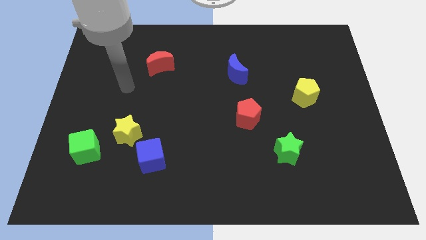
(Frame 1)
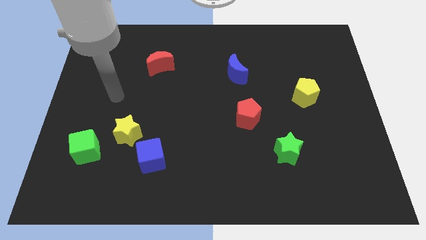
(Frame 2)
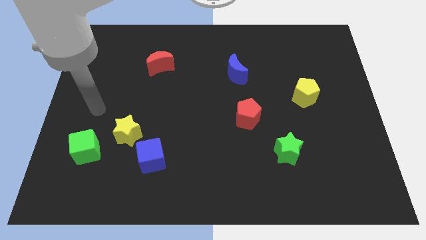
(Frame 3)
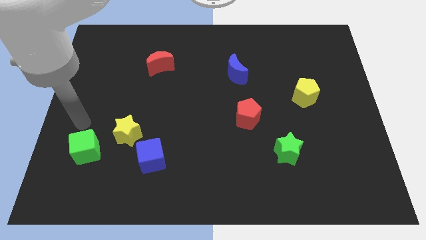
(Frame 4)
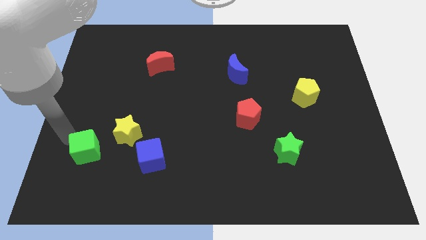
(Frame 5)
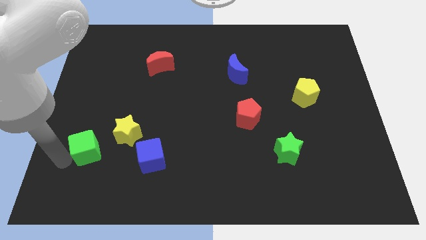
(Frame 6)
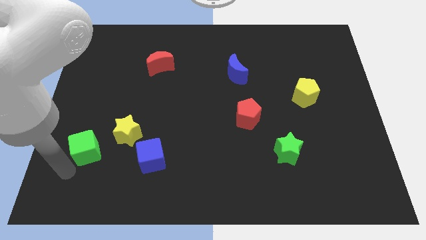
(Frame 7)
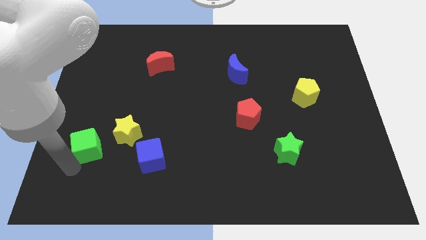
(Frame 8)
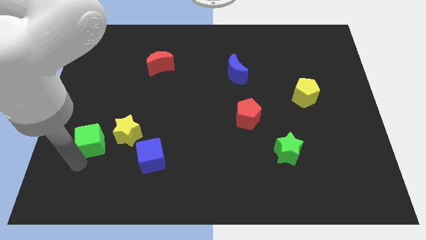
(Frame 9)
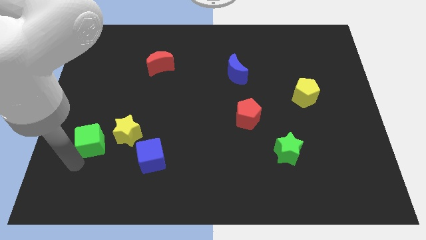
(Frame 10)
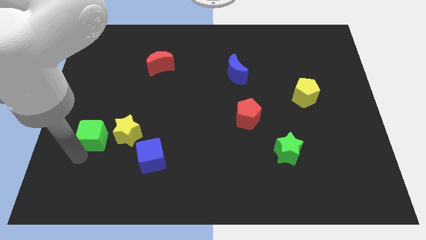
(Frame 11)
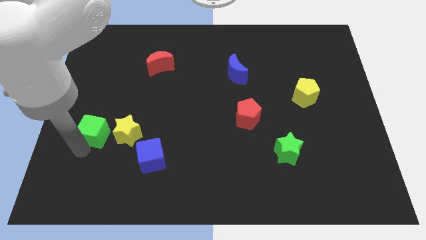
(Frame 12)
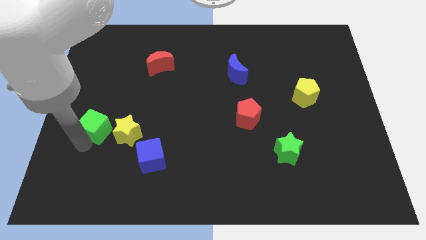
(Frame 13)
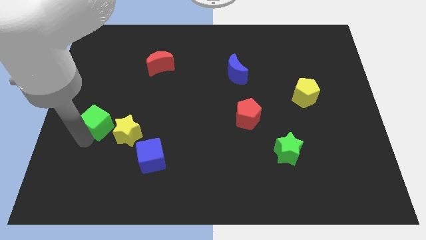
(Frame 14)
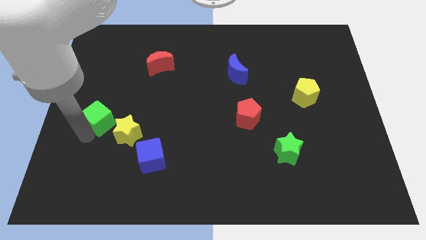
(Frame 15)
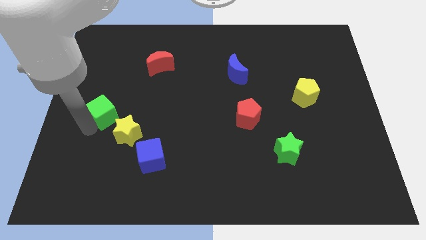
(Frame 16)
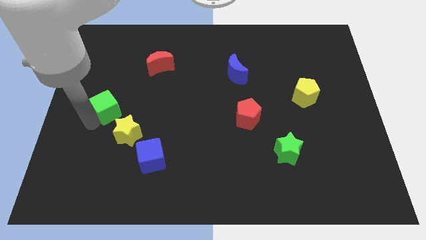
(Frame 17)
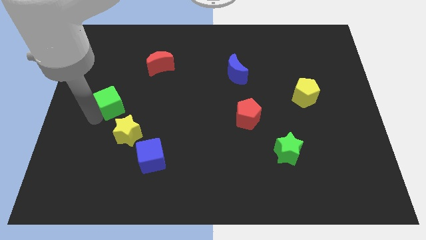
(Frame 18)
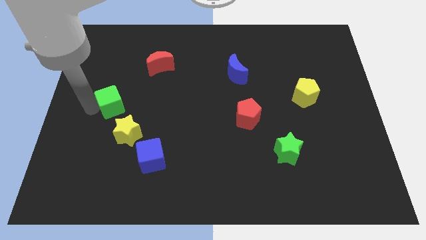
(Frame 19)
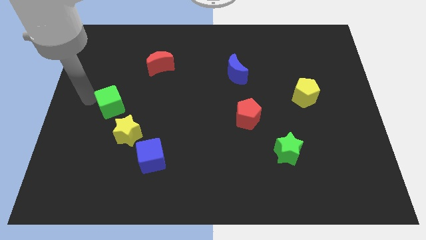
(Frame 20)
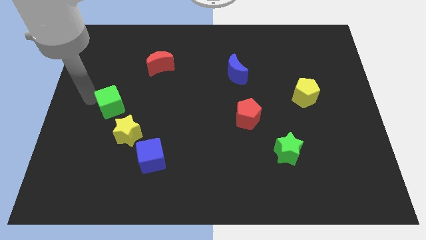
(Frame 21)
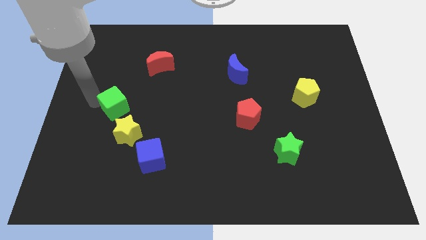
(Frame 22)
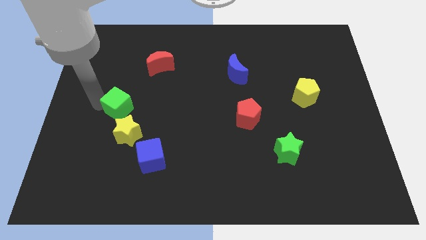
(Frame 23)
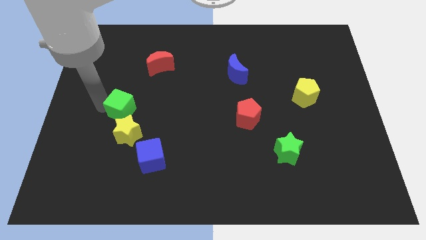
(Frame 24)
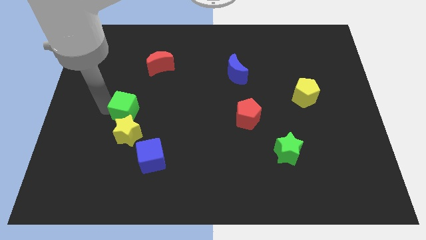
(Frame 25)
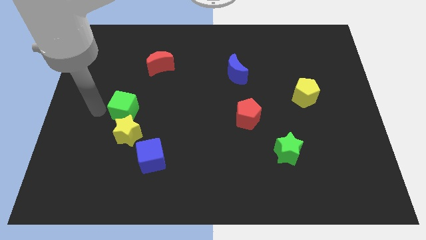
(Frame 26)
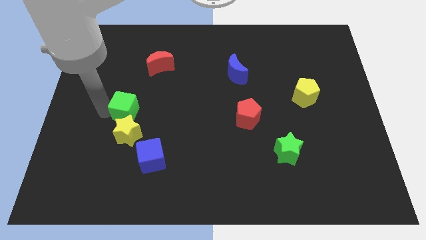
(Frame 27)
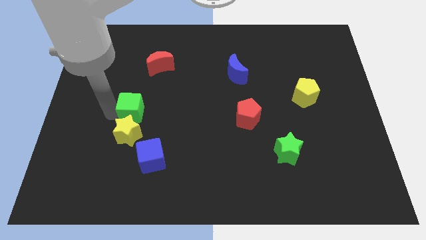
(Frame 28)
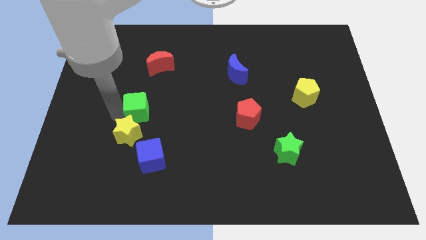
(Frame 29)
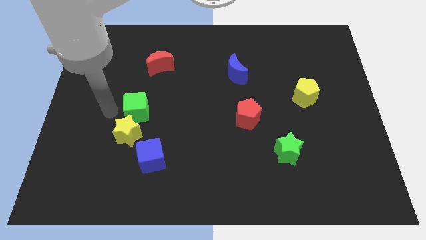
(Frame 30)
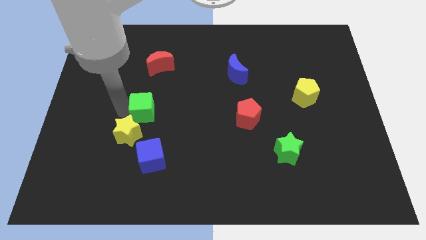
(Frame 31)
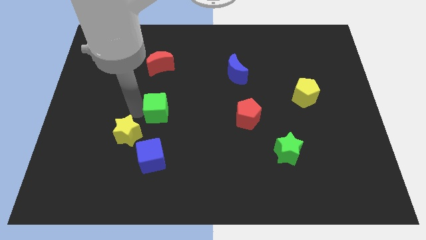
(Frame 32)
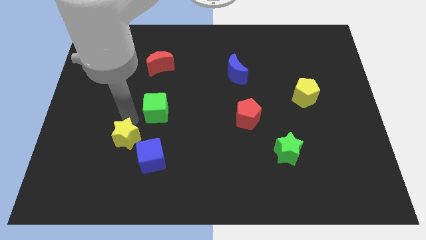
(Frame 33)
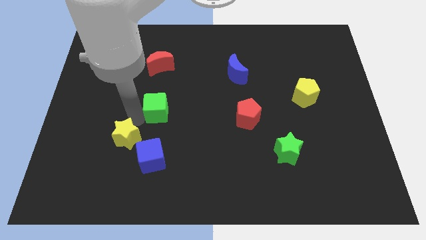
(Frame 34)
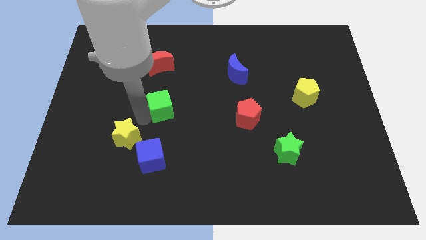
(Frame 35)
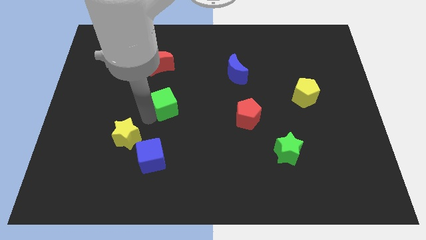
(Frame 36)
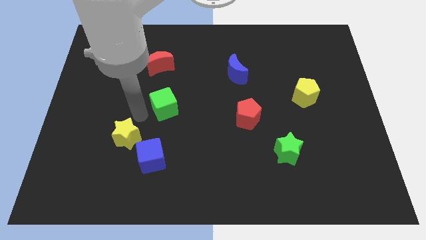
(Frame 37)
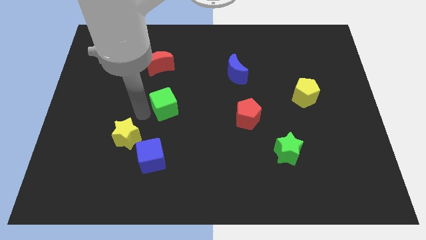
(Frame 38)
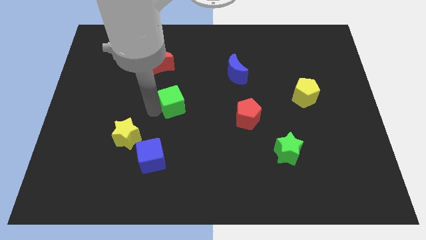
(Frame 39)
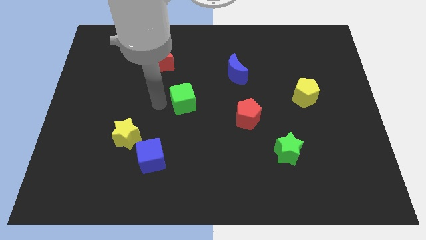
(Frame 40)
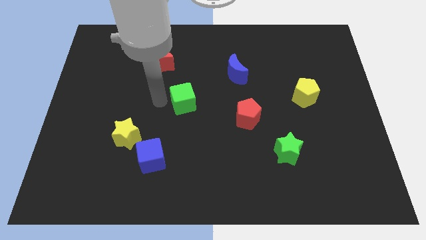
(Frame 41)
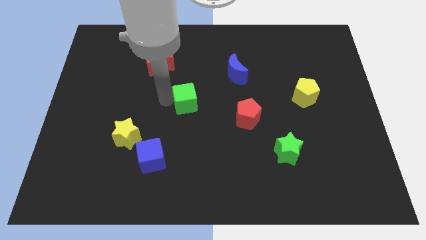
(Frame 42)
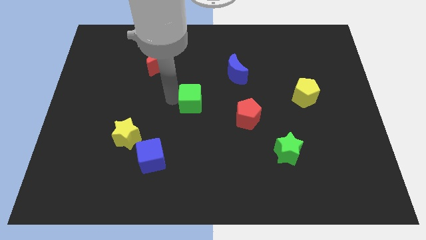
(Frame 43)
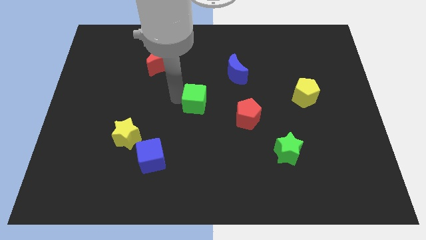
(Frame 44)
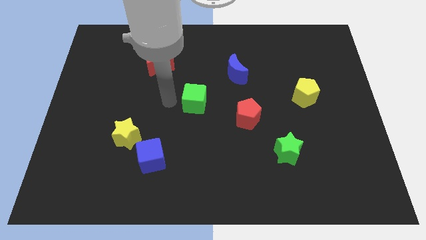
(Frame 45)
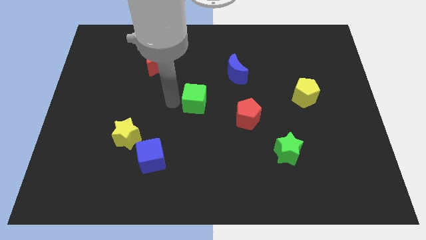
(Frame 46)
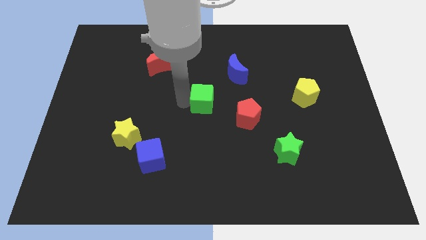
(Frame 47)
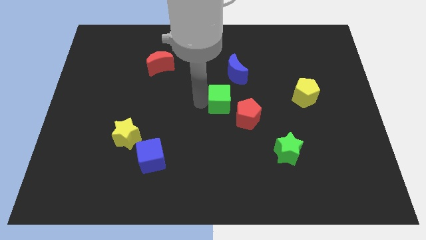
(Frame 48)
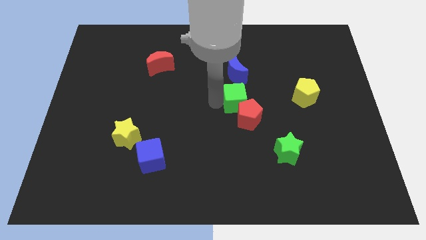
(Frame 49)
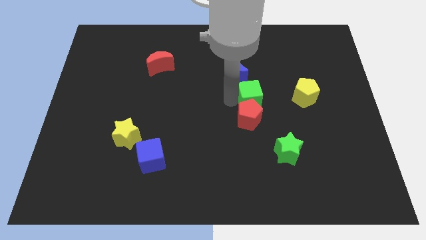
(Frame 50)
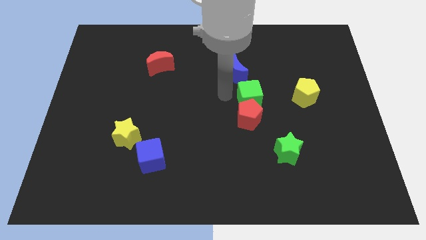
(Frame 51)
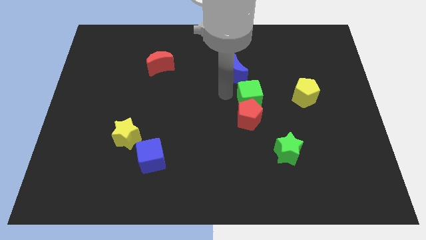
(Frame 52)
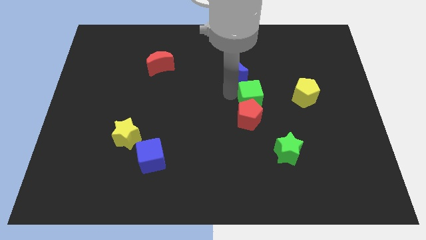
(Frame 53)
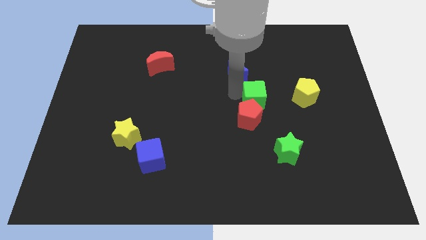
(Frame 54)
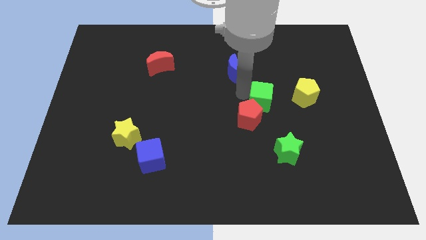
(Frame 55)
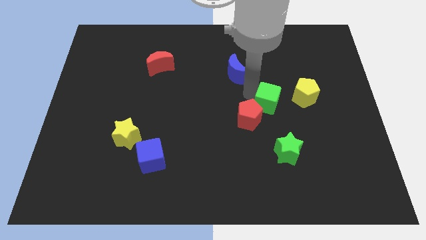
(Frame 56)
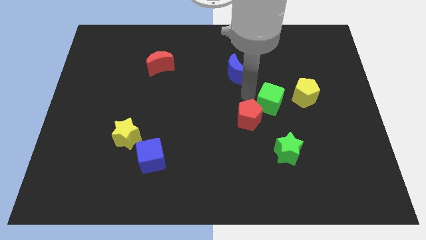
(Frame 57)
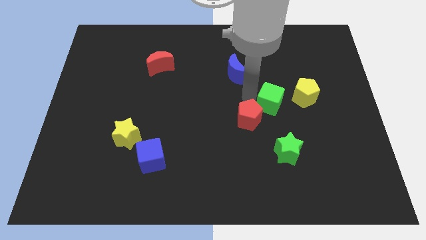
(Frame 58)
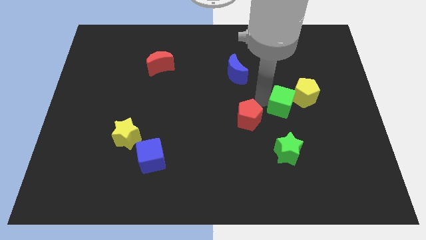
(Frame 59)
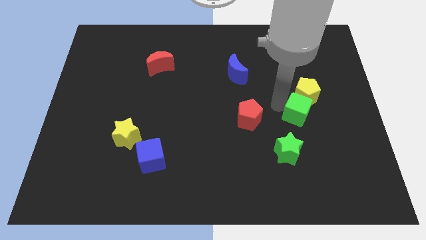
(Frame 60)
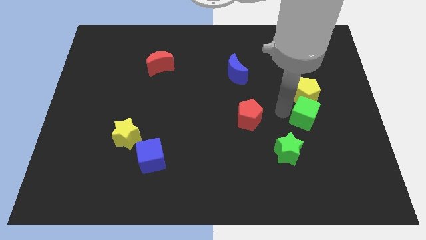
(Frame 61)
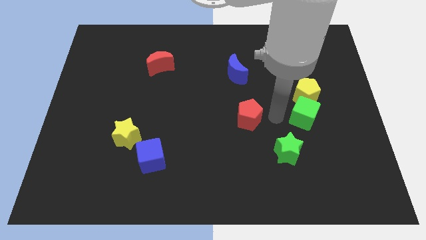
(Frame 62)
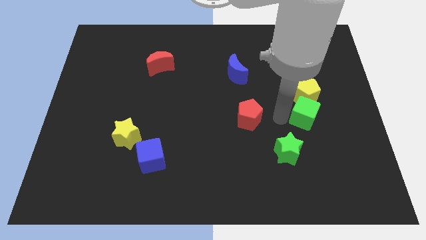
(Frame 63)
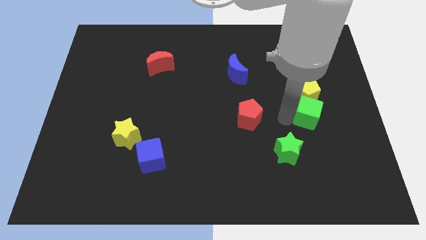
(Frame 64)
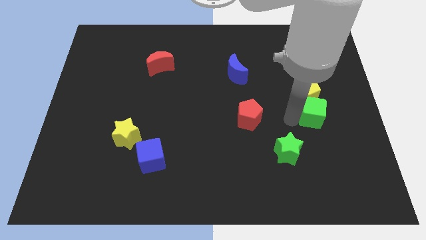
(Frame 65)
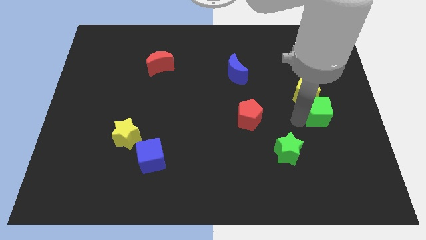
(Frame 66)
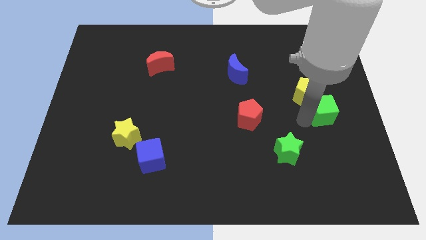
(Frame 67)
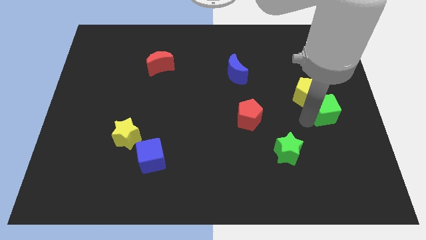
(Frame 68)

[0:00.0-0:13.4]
put the green cube to the center right
